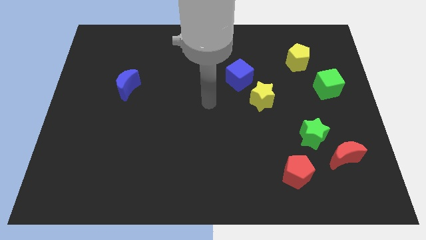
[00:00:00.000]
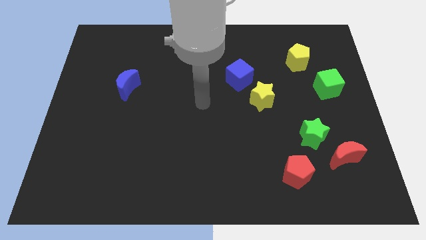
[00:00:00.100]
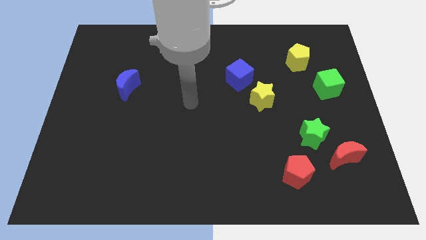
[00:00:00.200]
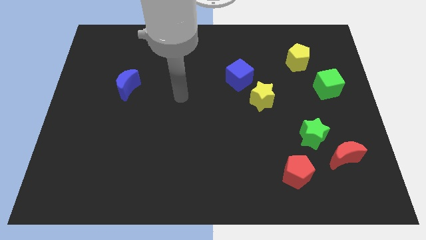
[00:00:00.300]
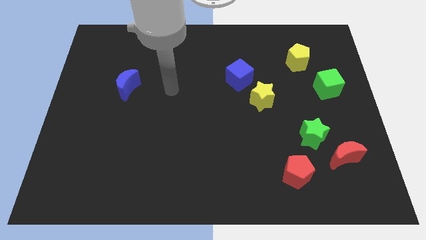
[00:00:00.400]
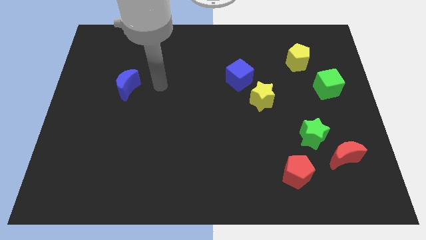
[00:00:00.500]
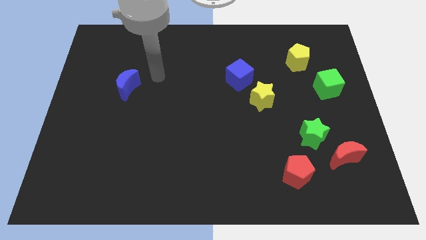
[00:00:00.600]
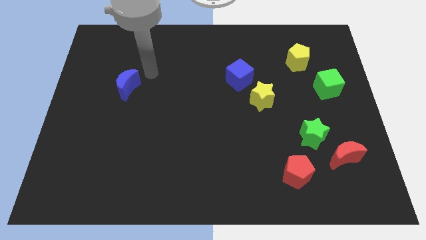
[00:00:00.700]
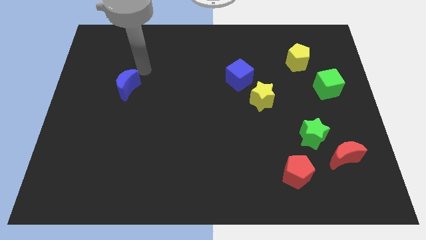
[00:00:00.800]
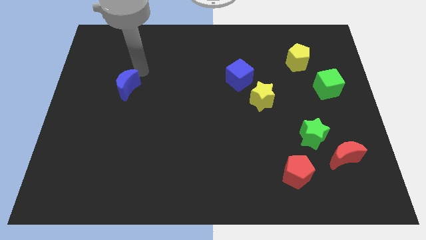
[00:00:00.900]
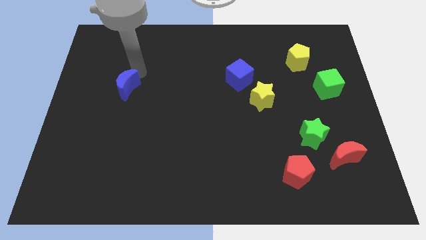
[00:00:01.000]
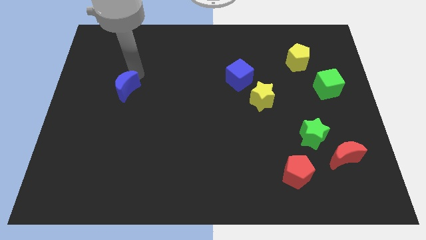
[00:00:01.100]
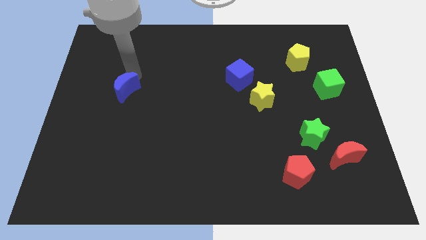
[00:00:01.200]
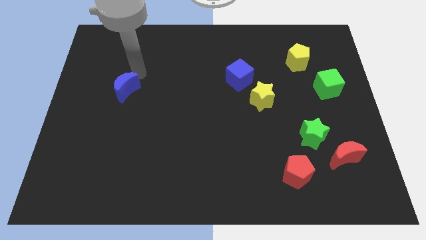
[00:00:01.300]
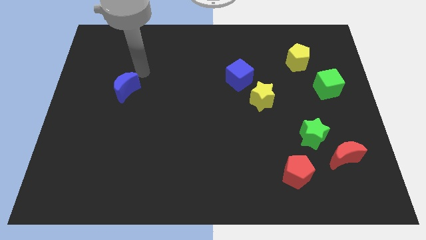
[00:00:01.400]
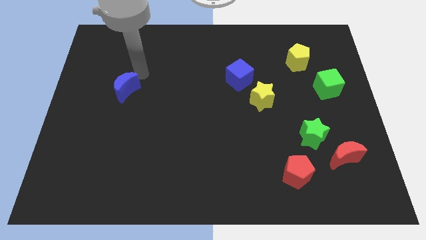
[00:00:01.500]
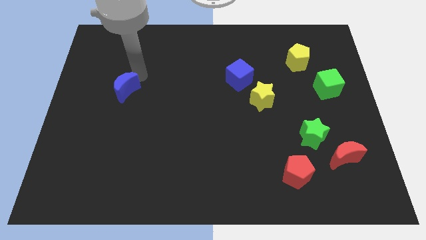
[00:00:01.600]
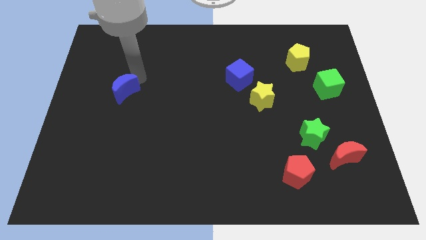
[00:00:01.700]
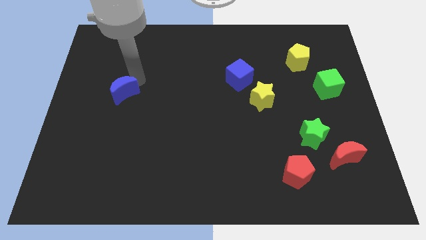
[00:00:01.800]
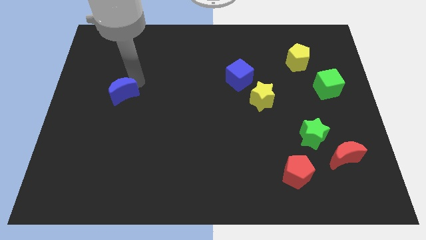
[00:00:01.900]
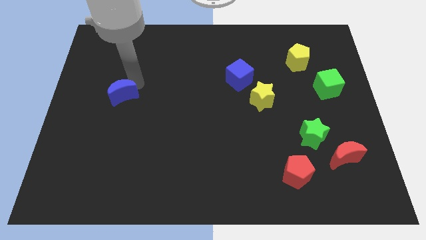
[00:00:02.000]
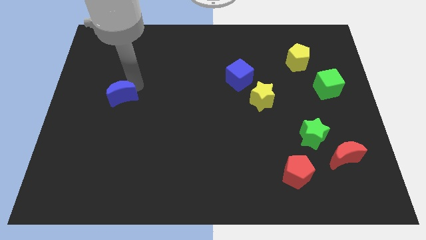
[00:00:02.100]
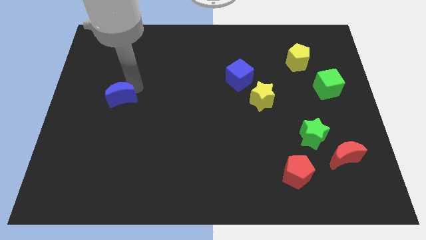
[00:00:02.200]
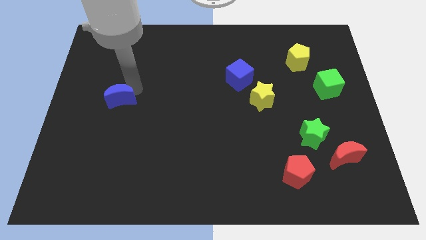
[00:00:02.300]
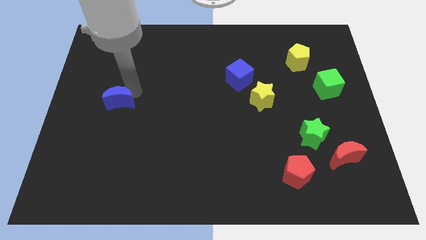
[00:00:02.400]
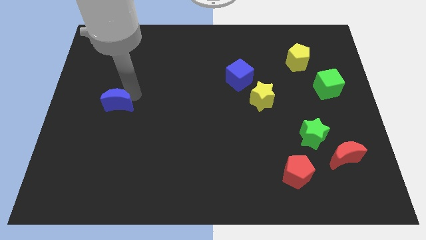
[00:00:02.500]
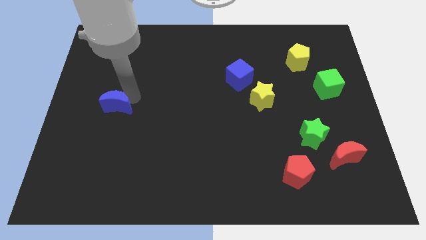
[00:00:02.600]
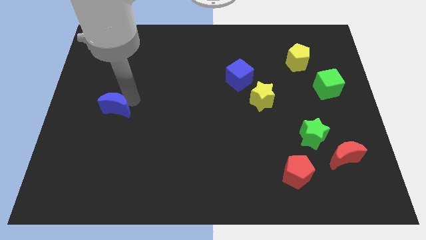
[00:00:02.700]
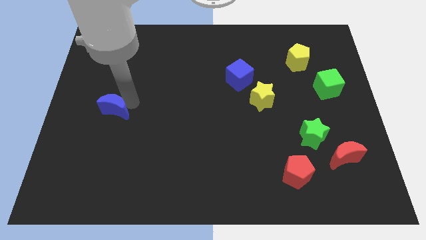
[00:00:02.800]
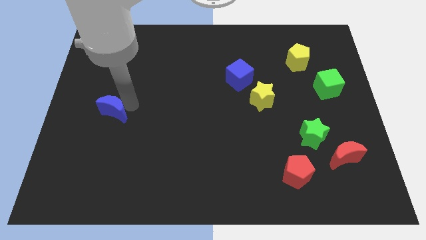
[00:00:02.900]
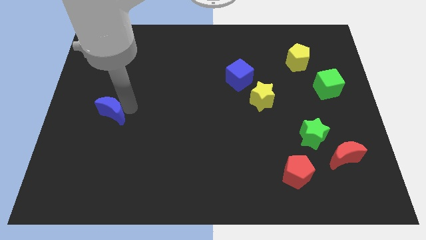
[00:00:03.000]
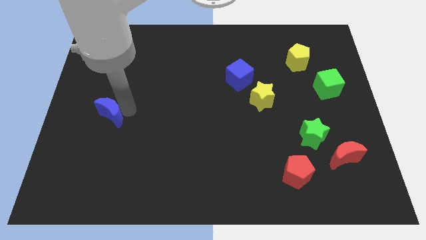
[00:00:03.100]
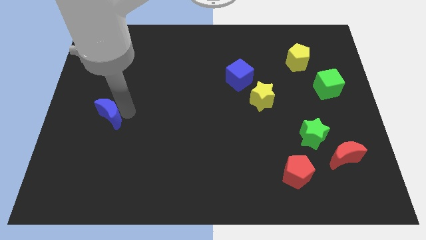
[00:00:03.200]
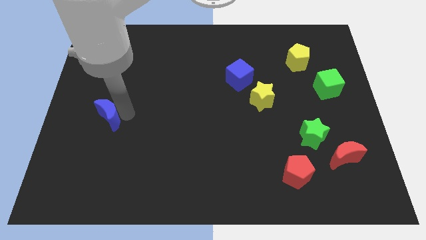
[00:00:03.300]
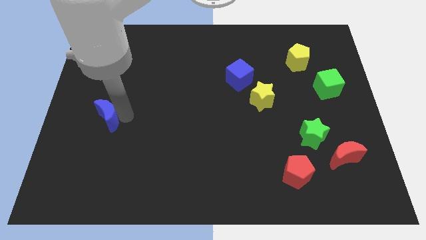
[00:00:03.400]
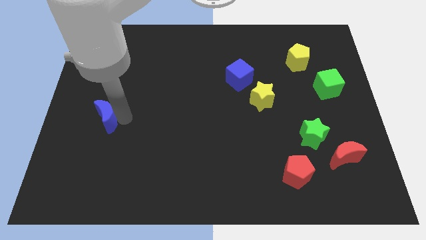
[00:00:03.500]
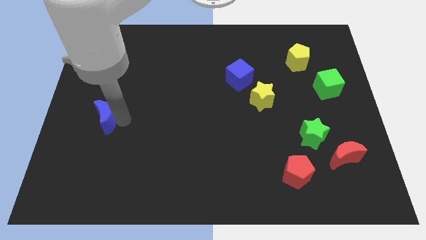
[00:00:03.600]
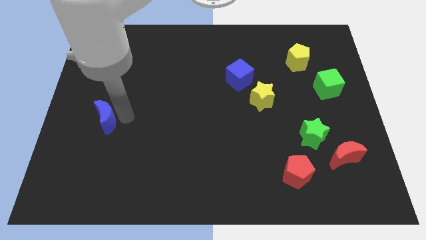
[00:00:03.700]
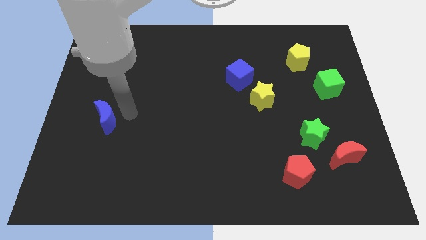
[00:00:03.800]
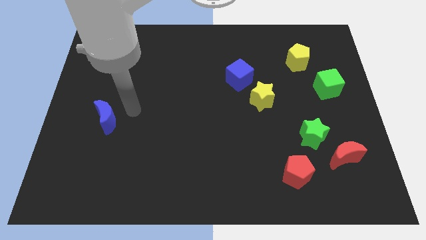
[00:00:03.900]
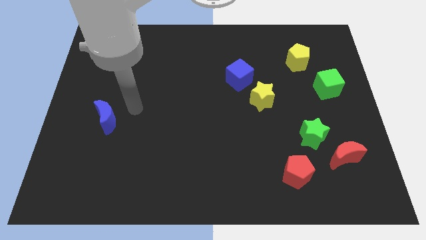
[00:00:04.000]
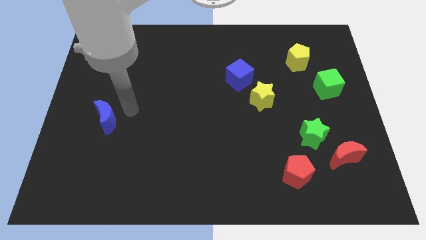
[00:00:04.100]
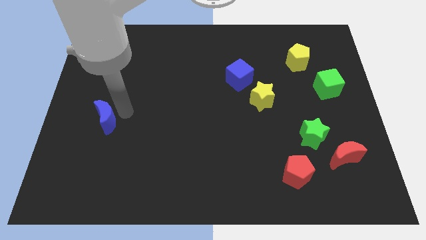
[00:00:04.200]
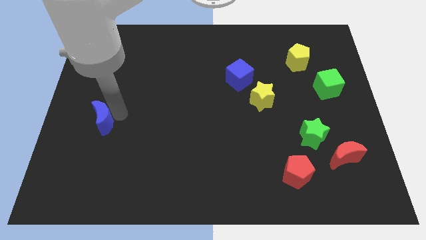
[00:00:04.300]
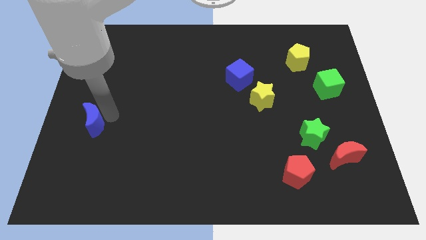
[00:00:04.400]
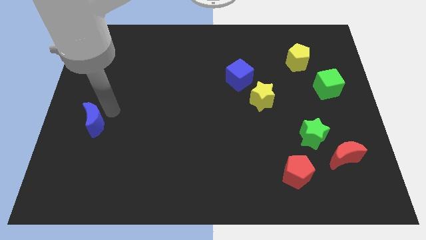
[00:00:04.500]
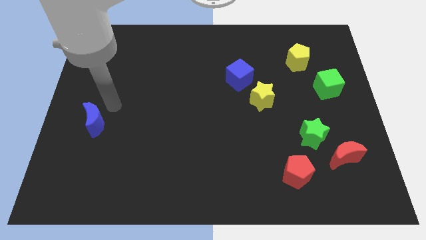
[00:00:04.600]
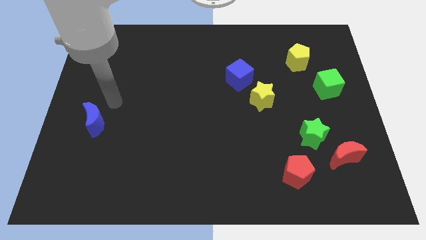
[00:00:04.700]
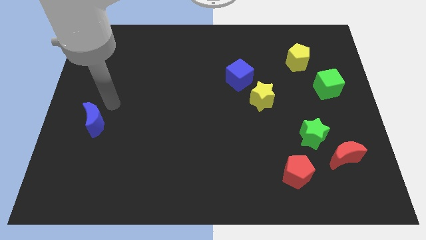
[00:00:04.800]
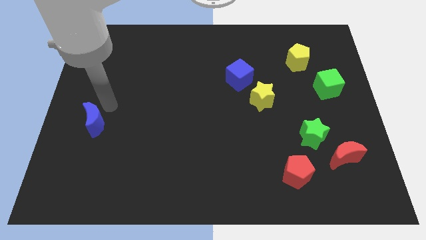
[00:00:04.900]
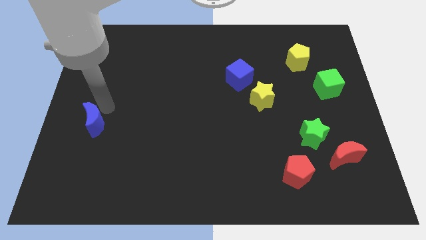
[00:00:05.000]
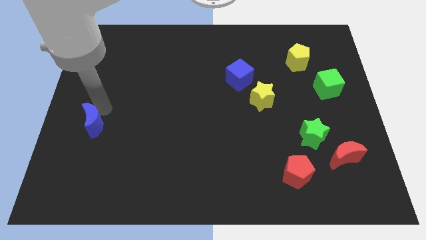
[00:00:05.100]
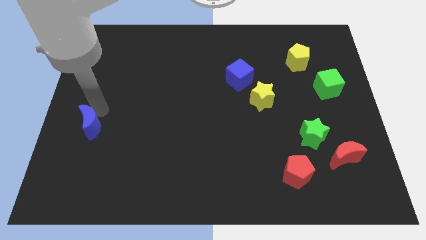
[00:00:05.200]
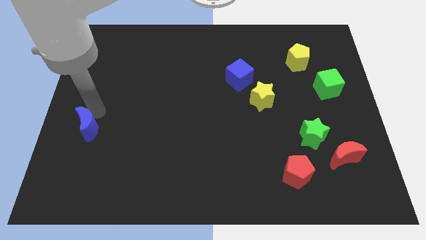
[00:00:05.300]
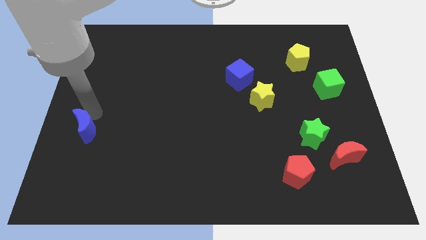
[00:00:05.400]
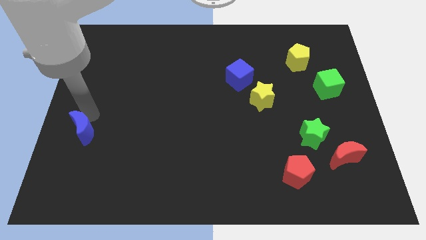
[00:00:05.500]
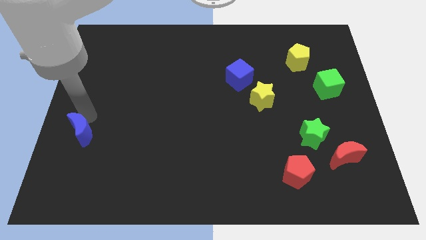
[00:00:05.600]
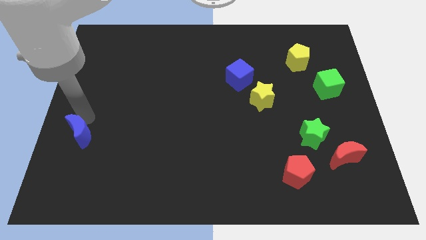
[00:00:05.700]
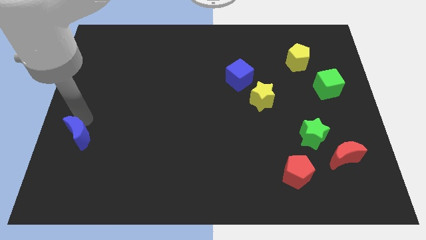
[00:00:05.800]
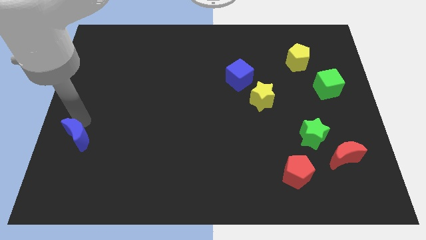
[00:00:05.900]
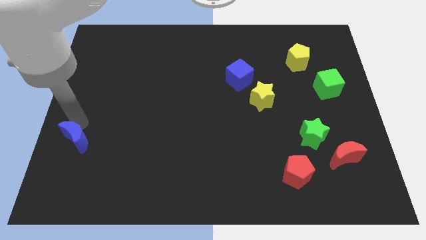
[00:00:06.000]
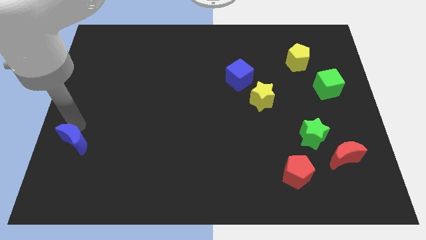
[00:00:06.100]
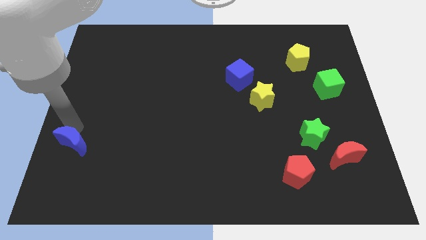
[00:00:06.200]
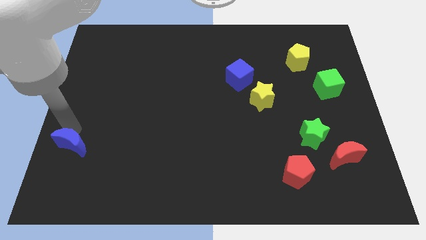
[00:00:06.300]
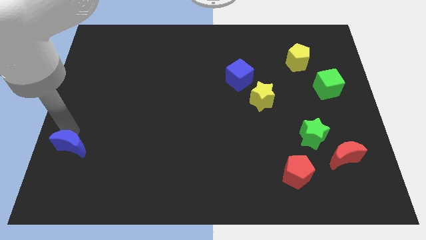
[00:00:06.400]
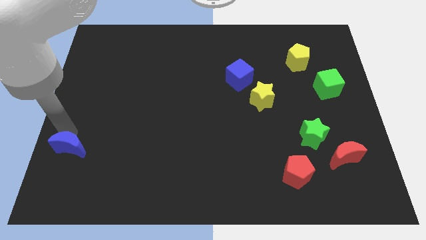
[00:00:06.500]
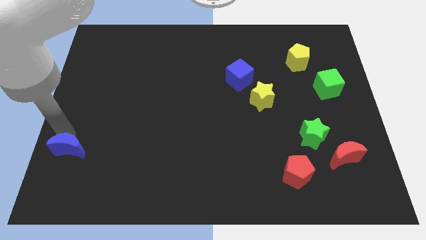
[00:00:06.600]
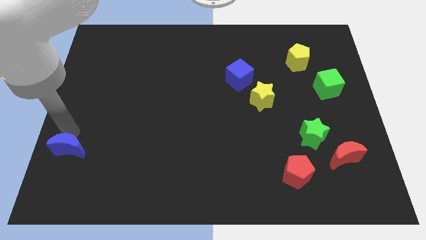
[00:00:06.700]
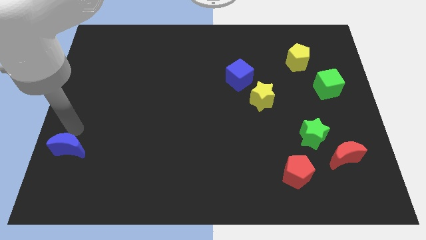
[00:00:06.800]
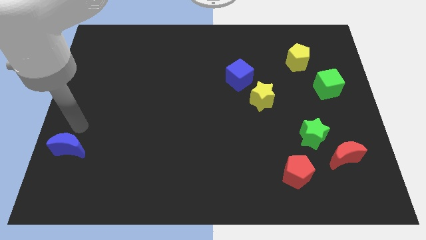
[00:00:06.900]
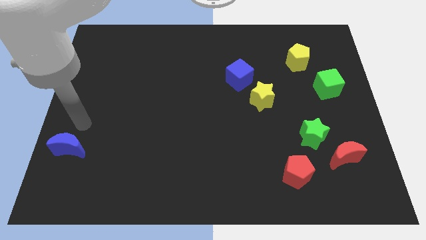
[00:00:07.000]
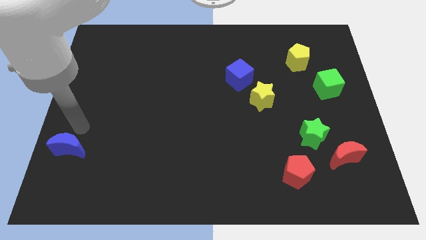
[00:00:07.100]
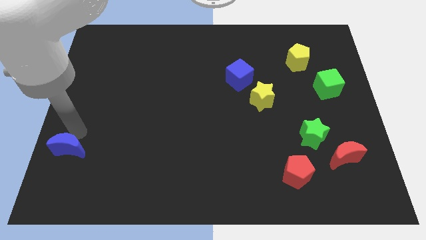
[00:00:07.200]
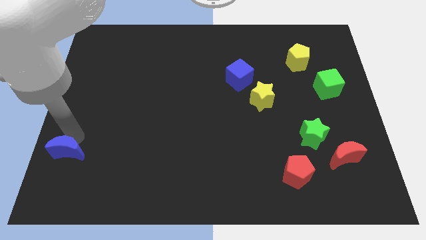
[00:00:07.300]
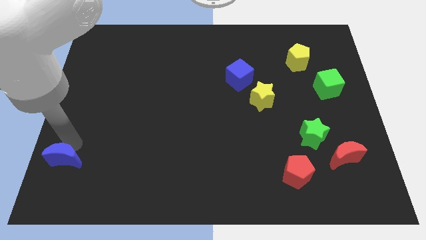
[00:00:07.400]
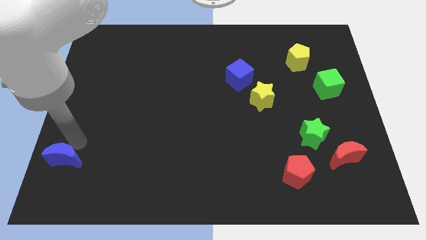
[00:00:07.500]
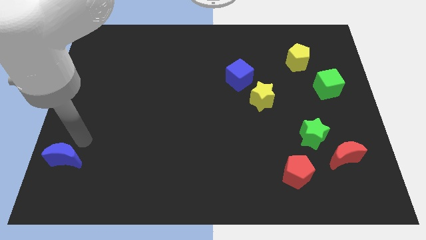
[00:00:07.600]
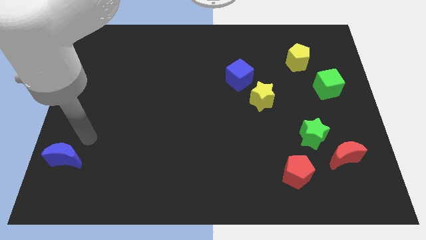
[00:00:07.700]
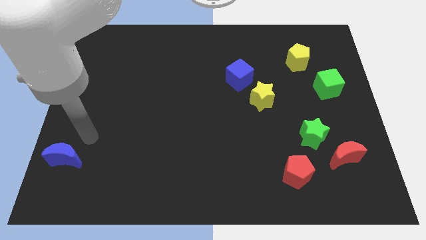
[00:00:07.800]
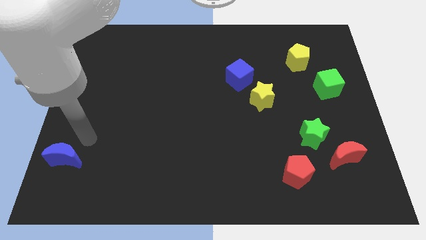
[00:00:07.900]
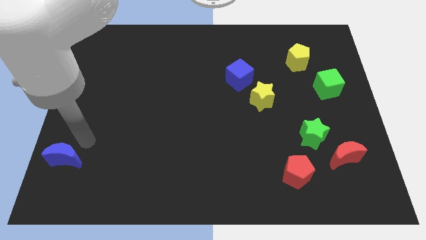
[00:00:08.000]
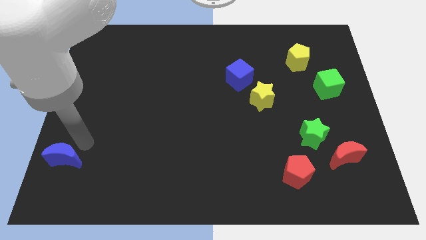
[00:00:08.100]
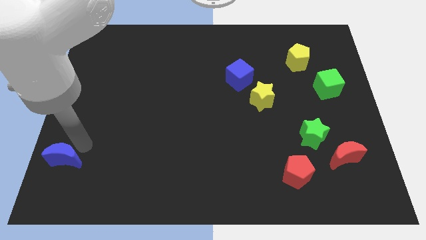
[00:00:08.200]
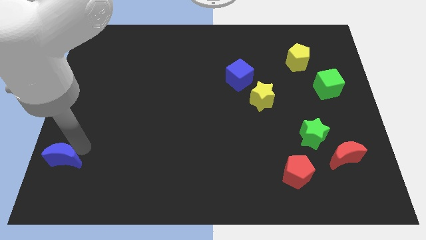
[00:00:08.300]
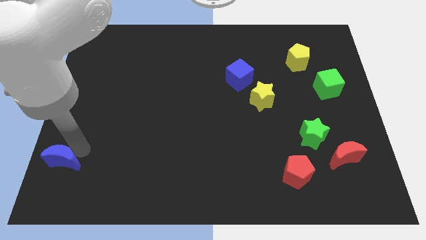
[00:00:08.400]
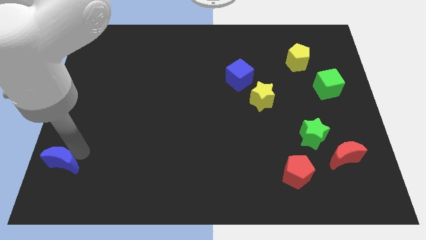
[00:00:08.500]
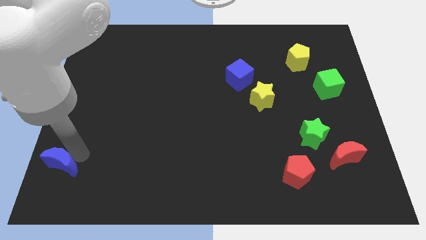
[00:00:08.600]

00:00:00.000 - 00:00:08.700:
put the blue moon to the bottom left of the board
